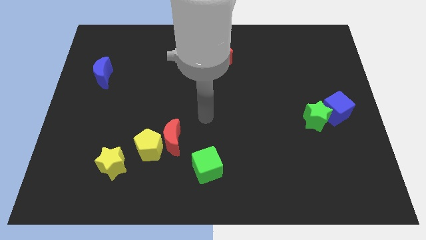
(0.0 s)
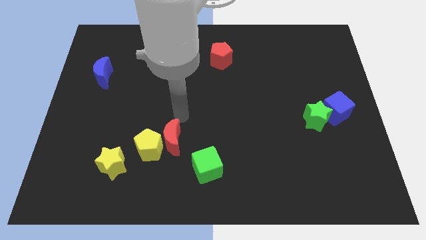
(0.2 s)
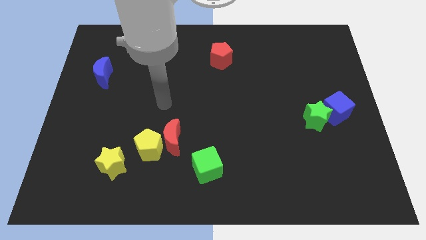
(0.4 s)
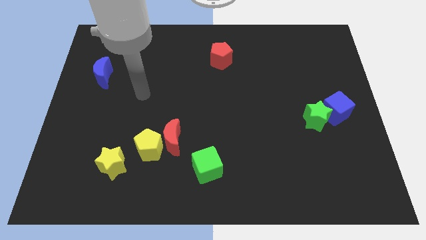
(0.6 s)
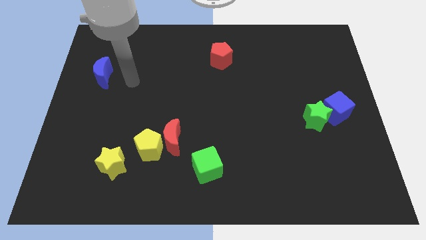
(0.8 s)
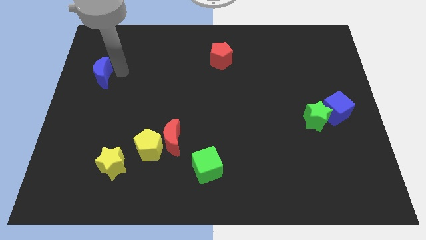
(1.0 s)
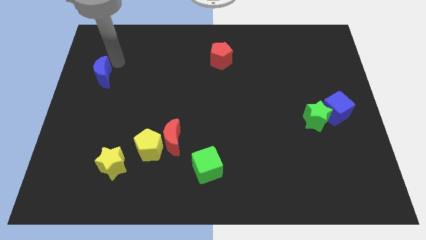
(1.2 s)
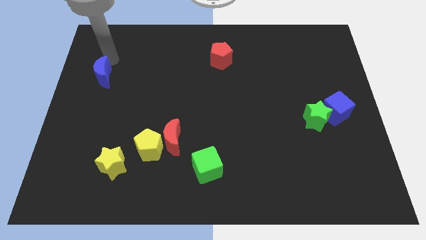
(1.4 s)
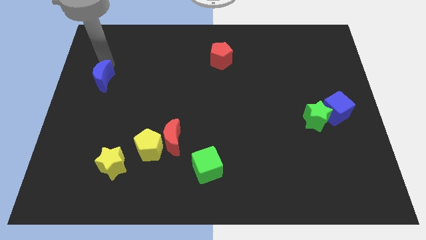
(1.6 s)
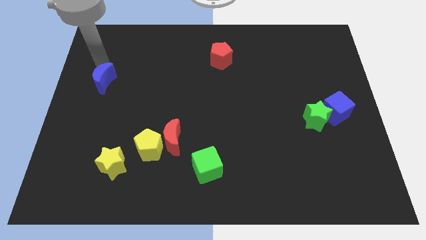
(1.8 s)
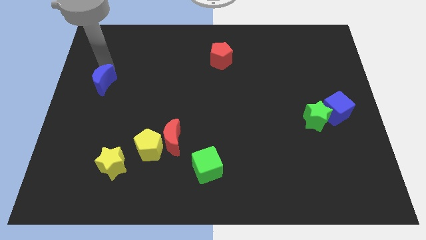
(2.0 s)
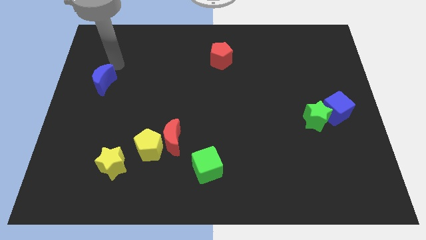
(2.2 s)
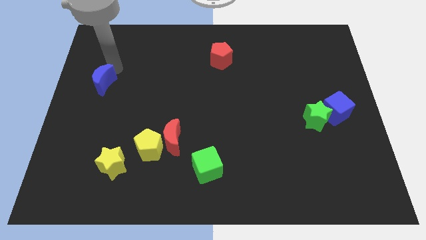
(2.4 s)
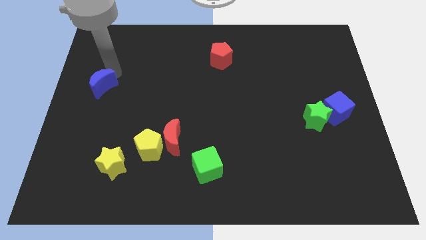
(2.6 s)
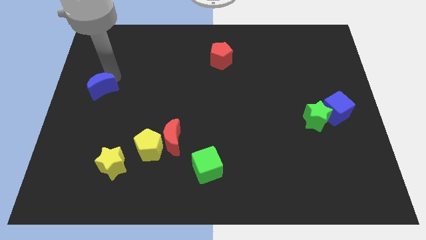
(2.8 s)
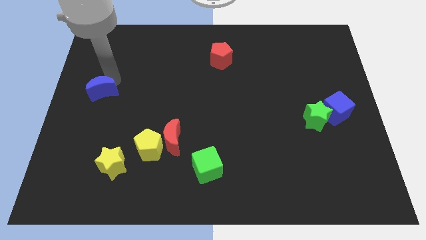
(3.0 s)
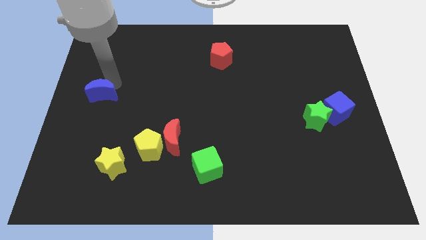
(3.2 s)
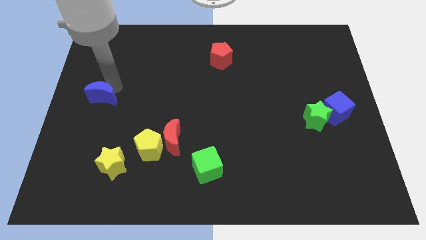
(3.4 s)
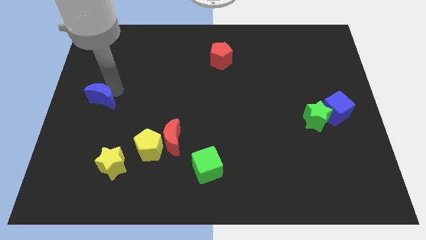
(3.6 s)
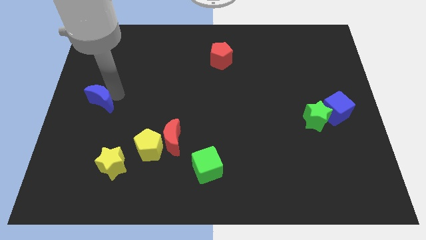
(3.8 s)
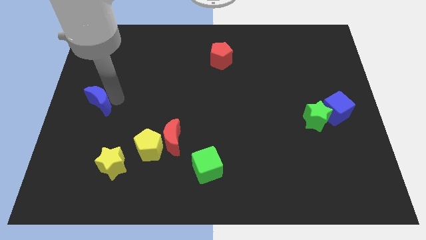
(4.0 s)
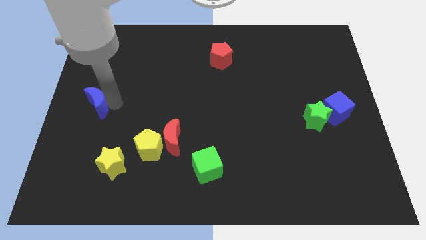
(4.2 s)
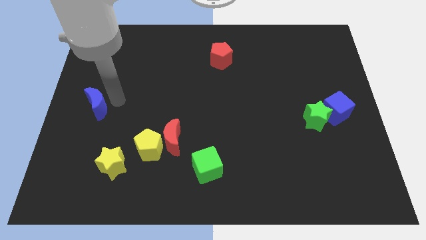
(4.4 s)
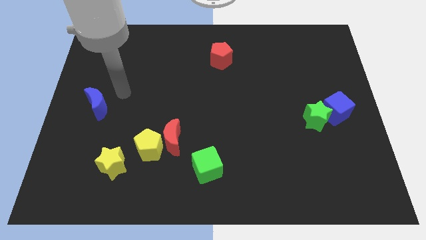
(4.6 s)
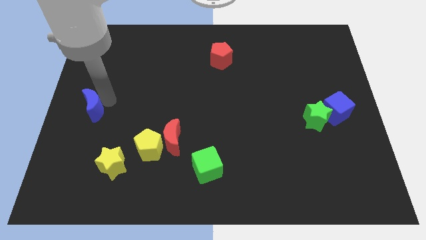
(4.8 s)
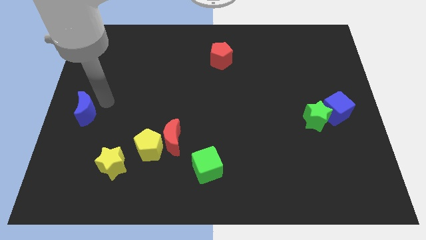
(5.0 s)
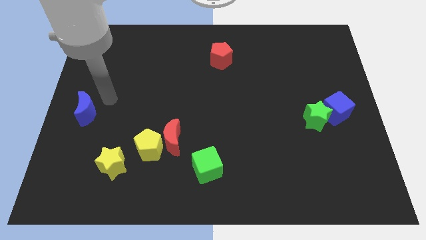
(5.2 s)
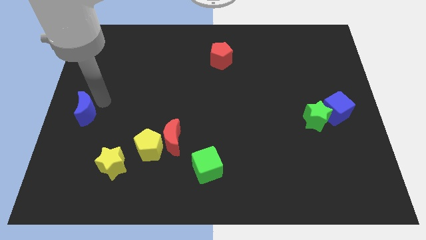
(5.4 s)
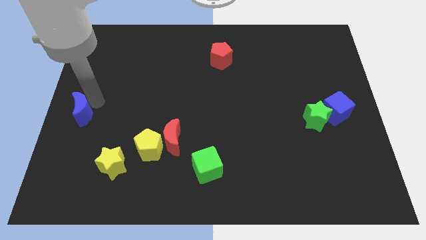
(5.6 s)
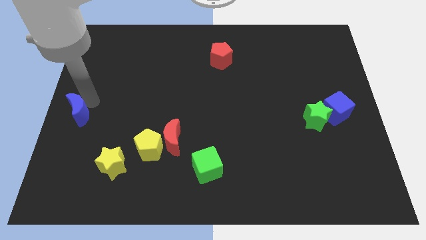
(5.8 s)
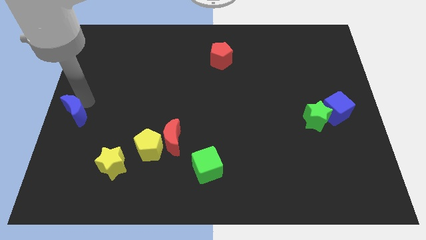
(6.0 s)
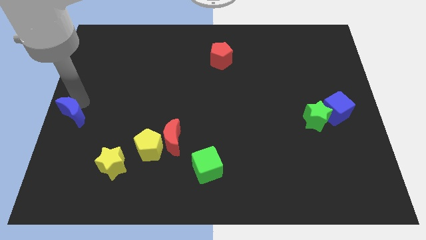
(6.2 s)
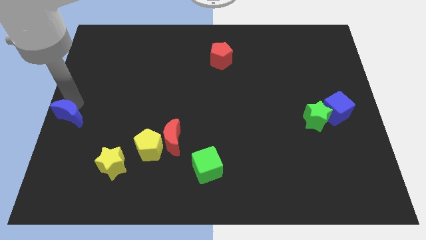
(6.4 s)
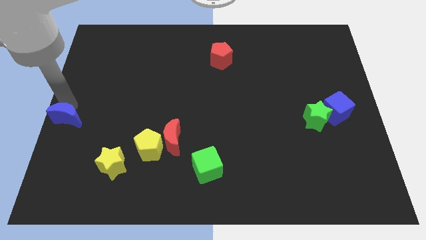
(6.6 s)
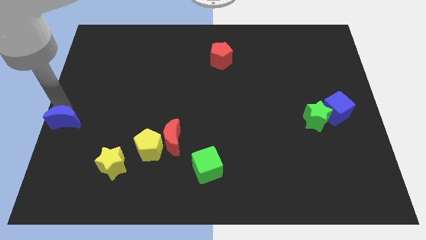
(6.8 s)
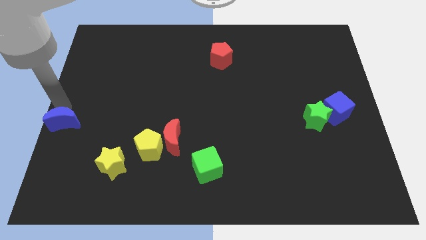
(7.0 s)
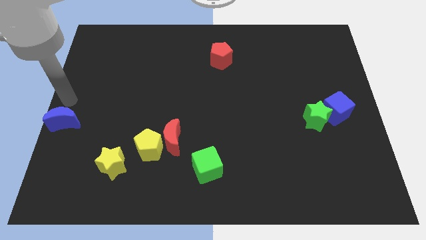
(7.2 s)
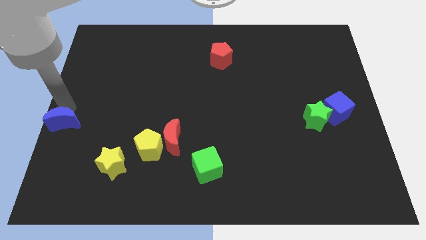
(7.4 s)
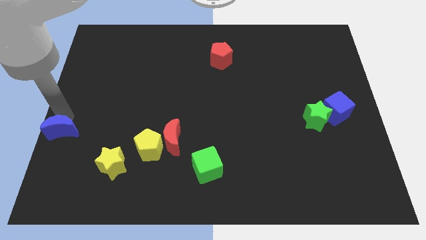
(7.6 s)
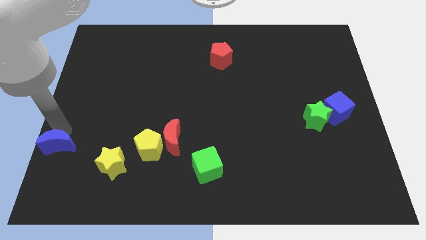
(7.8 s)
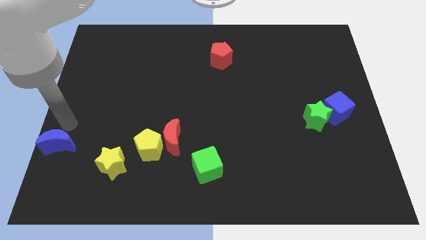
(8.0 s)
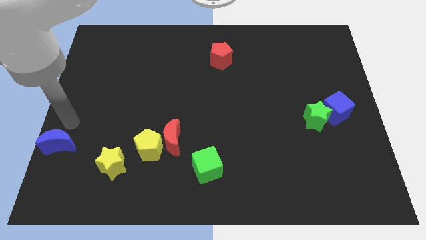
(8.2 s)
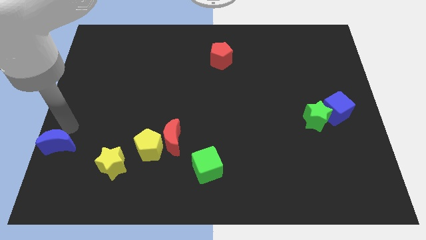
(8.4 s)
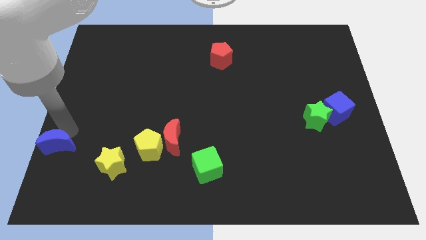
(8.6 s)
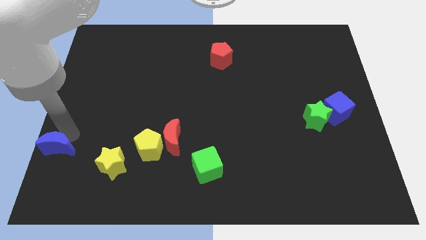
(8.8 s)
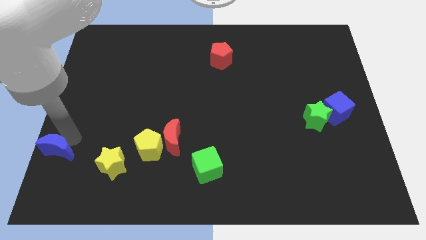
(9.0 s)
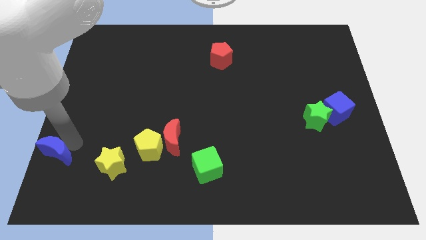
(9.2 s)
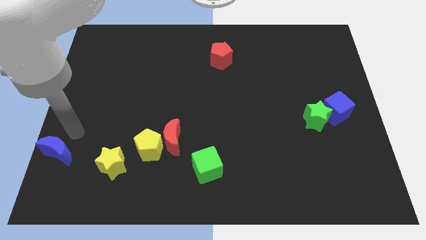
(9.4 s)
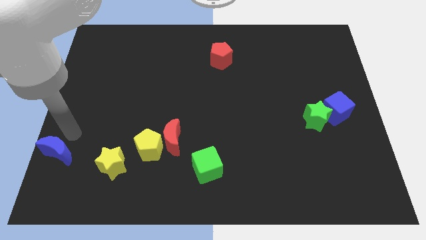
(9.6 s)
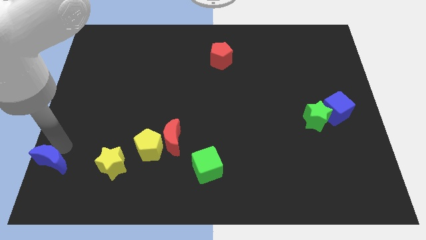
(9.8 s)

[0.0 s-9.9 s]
push the blue moon to the lower left corner

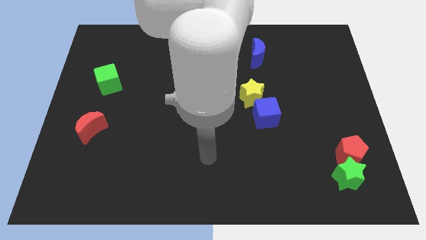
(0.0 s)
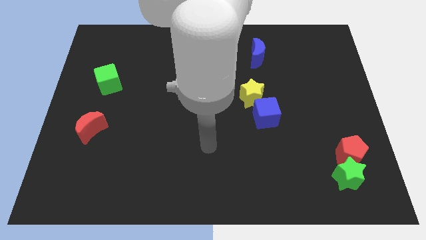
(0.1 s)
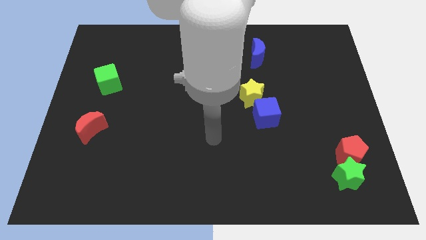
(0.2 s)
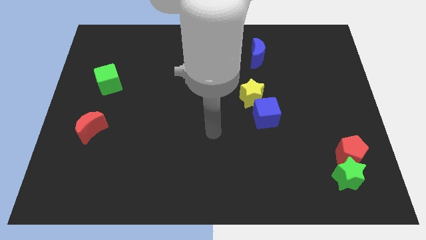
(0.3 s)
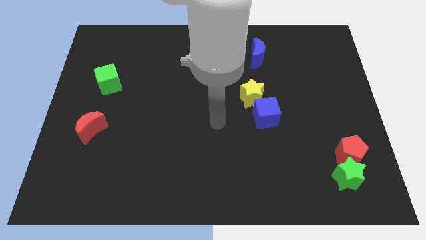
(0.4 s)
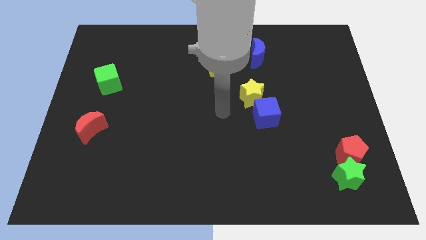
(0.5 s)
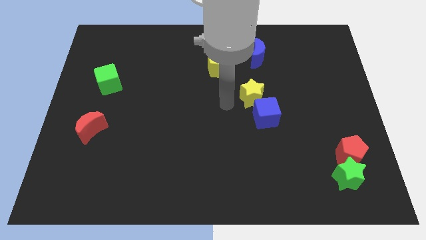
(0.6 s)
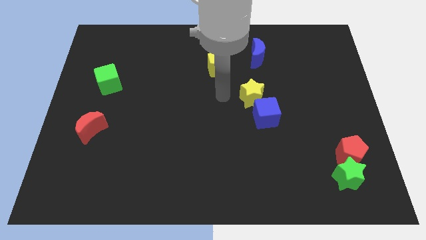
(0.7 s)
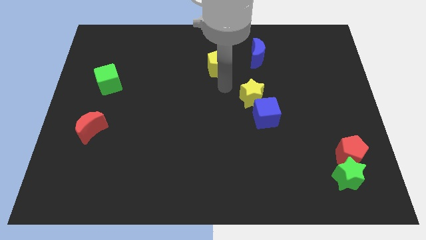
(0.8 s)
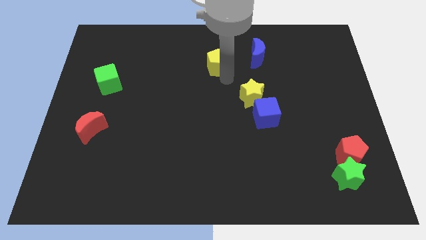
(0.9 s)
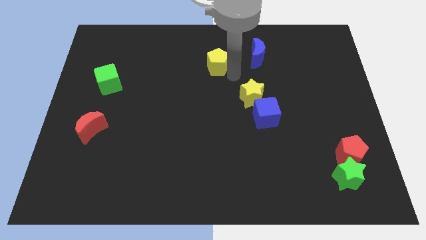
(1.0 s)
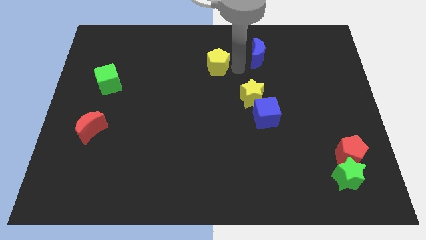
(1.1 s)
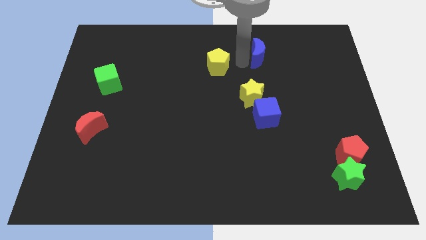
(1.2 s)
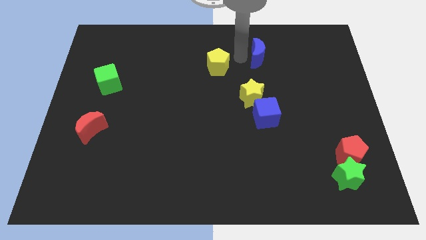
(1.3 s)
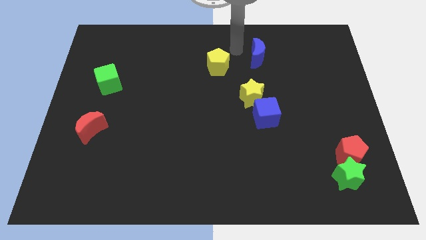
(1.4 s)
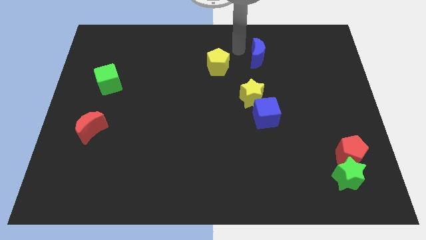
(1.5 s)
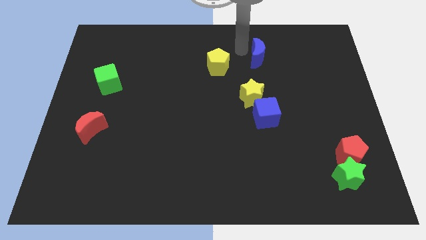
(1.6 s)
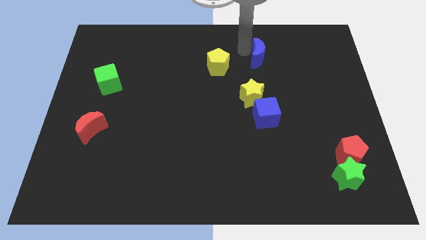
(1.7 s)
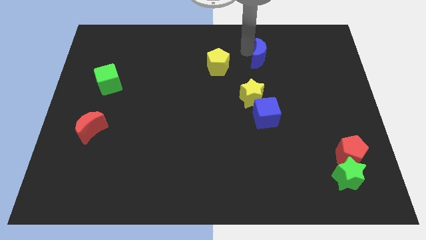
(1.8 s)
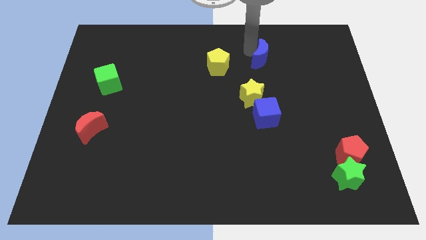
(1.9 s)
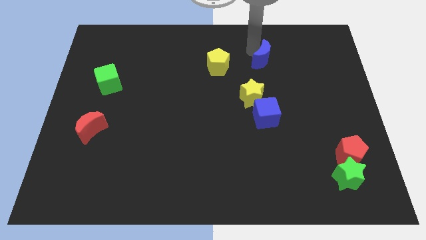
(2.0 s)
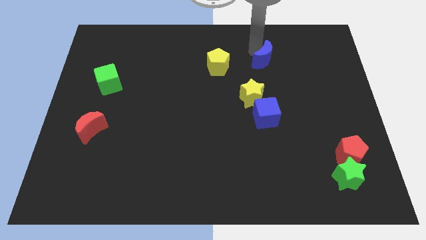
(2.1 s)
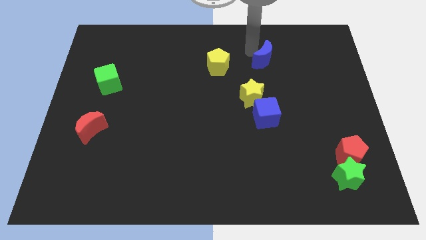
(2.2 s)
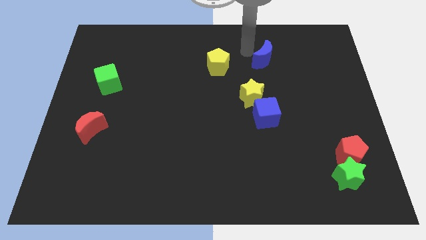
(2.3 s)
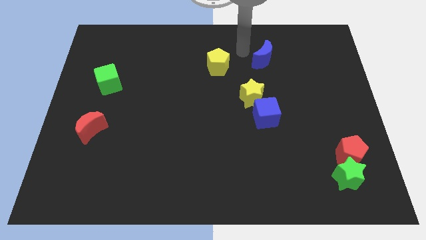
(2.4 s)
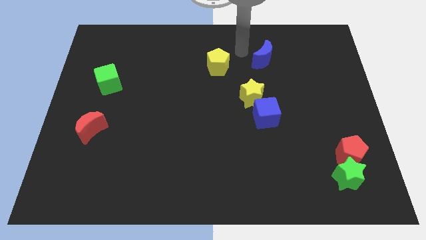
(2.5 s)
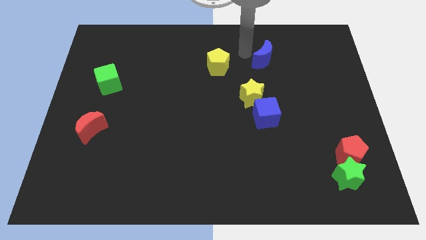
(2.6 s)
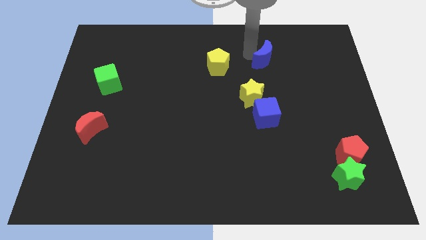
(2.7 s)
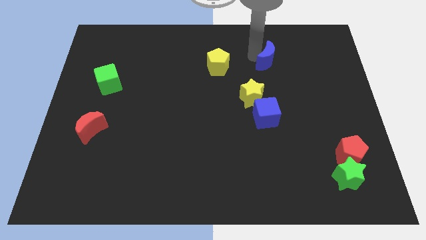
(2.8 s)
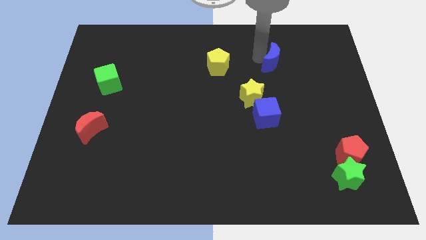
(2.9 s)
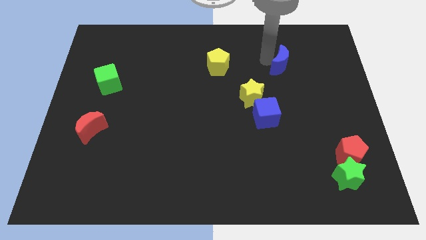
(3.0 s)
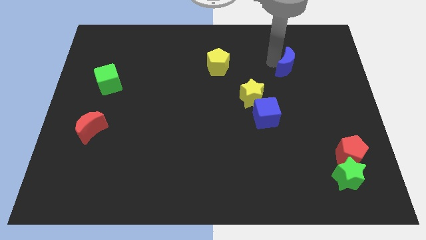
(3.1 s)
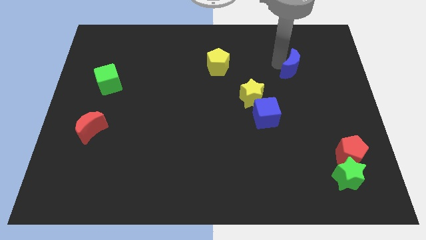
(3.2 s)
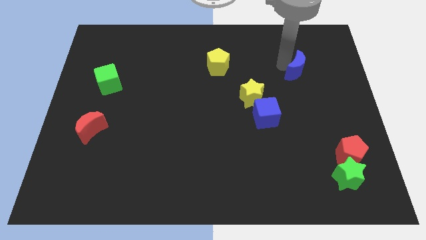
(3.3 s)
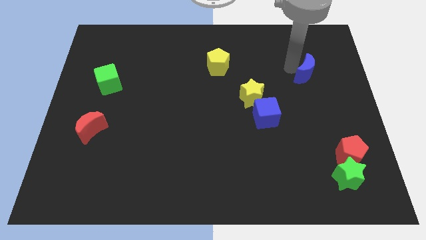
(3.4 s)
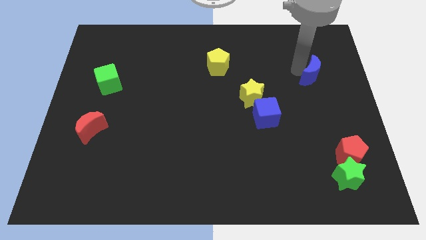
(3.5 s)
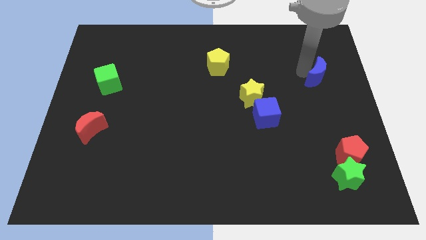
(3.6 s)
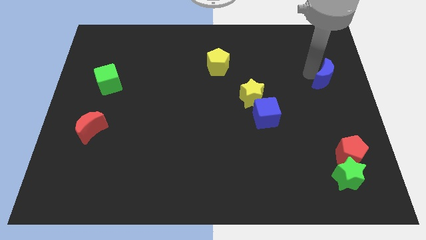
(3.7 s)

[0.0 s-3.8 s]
push the blue moon to the right side of the board
